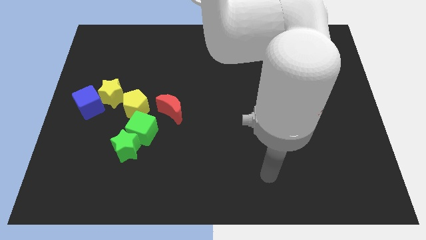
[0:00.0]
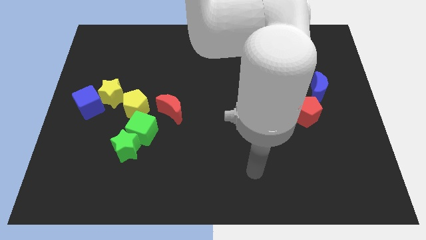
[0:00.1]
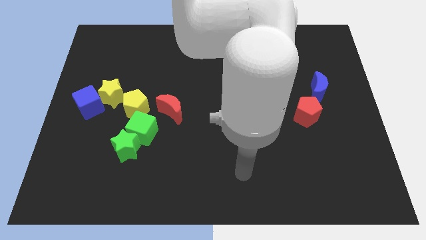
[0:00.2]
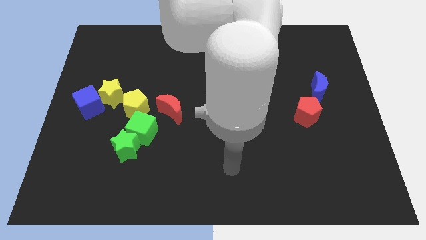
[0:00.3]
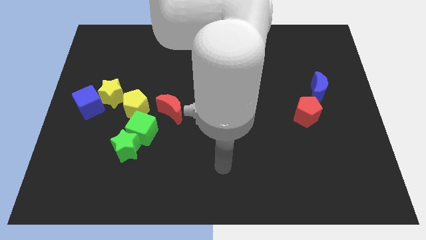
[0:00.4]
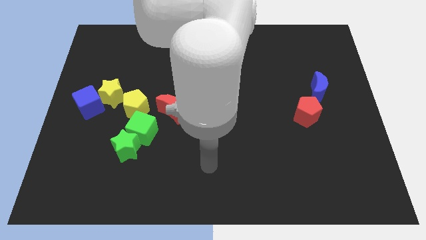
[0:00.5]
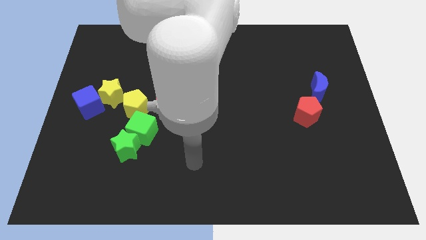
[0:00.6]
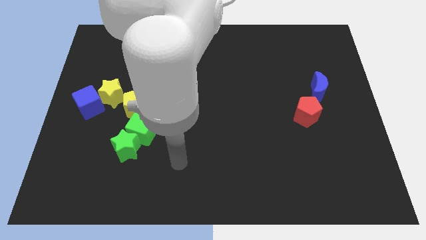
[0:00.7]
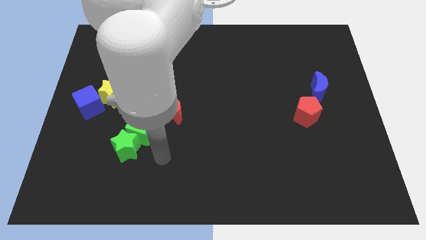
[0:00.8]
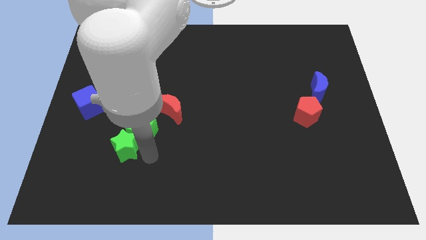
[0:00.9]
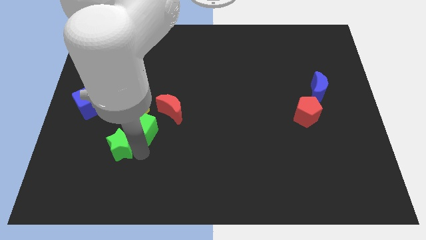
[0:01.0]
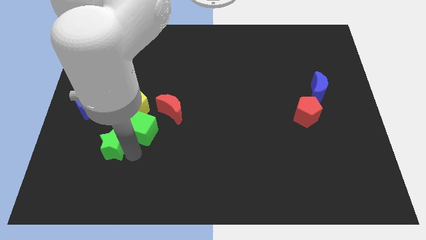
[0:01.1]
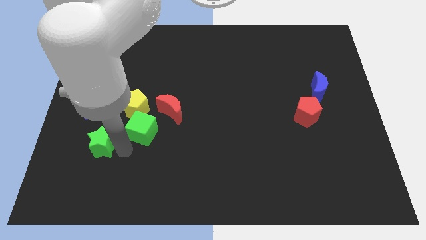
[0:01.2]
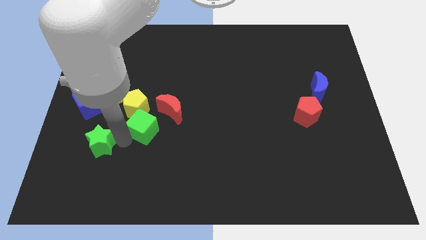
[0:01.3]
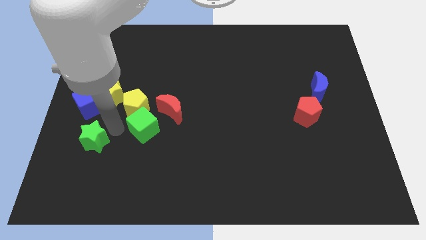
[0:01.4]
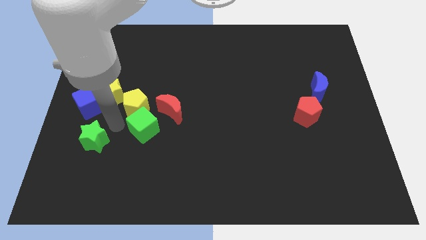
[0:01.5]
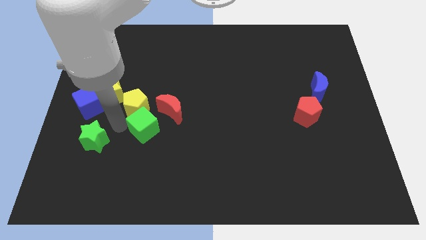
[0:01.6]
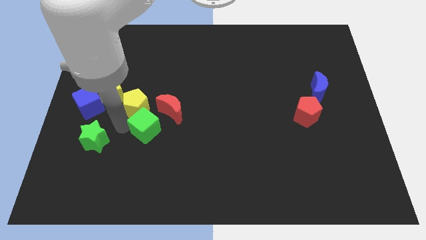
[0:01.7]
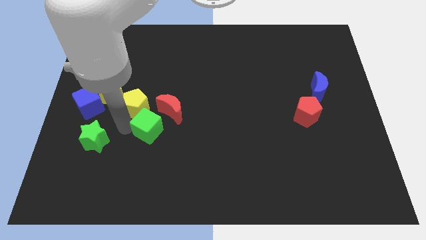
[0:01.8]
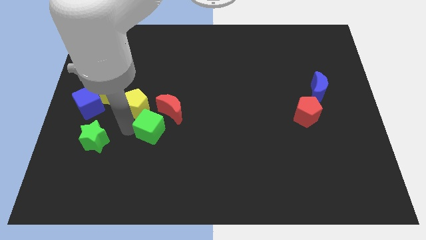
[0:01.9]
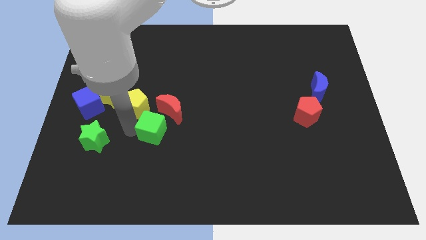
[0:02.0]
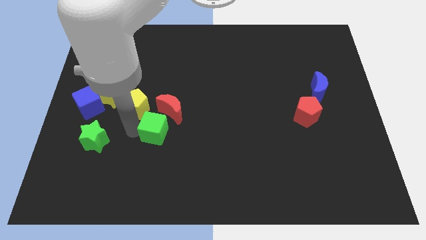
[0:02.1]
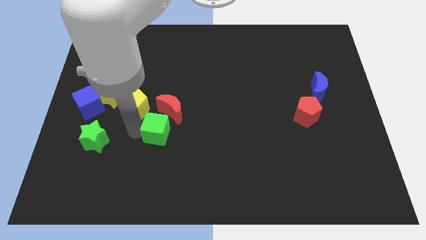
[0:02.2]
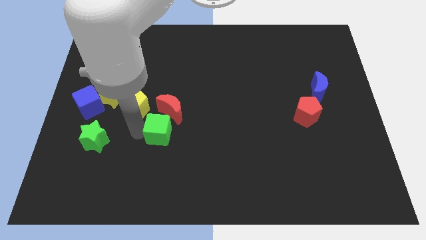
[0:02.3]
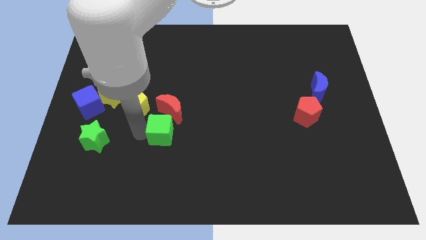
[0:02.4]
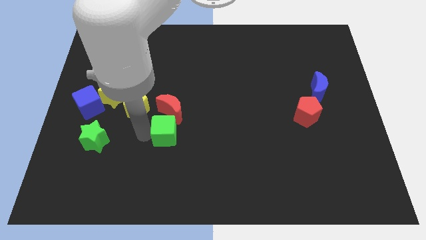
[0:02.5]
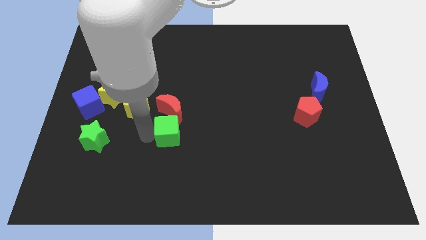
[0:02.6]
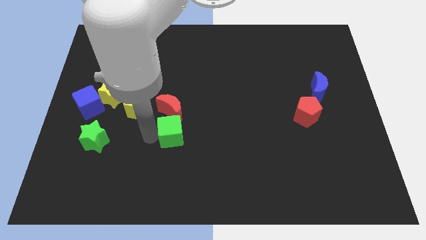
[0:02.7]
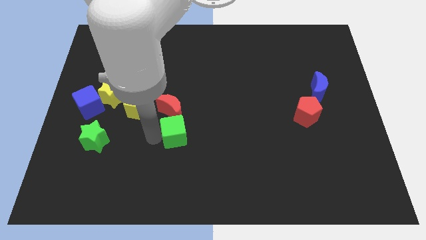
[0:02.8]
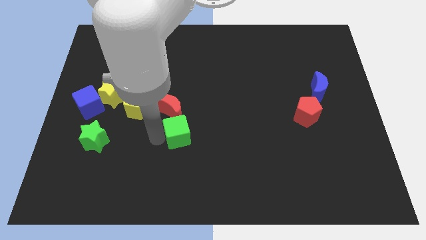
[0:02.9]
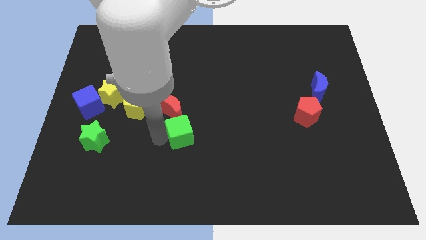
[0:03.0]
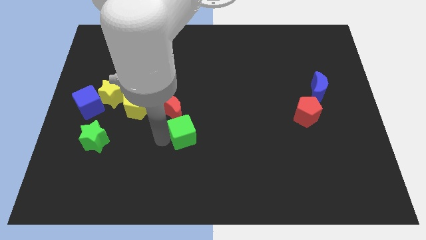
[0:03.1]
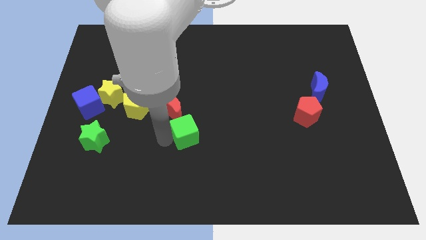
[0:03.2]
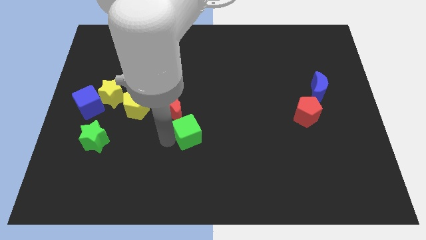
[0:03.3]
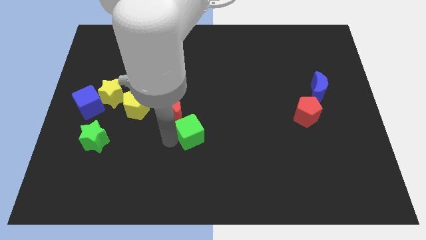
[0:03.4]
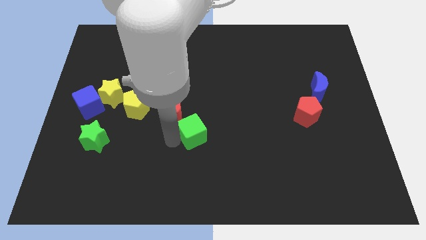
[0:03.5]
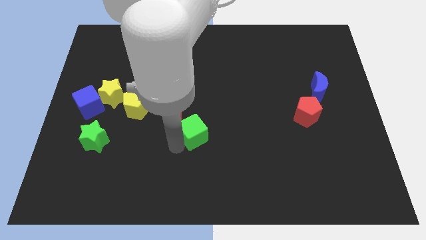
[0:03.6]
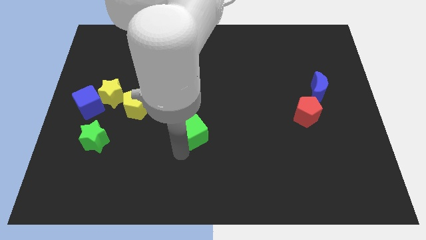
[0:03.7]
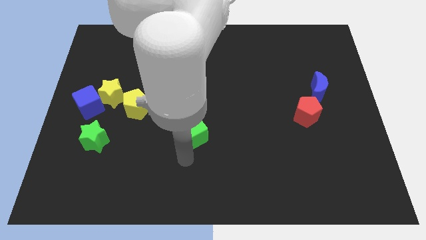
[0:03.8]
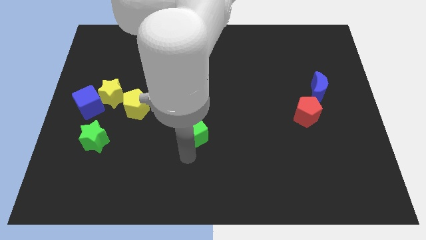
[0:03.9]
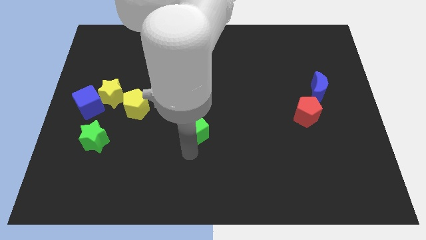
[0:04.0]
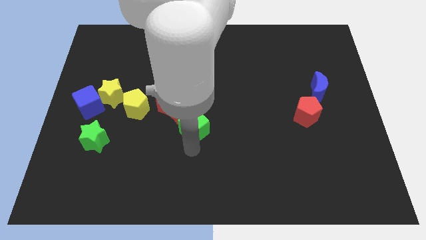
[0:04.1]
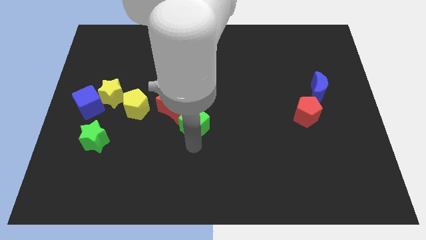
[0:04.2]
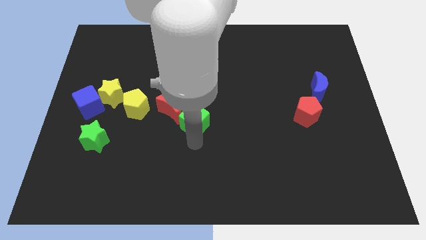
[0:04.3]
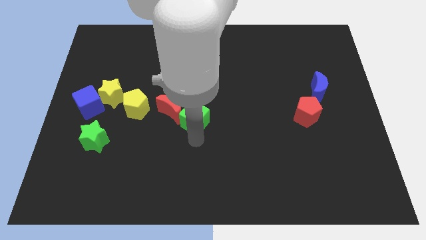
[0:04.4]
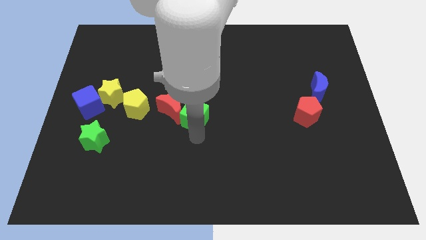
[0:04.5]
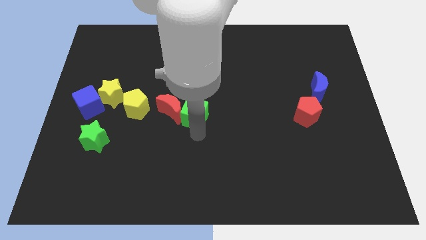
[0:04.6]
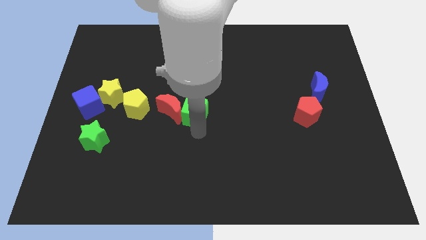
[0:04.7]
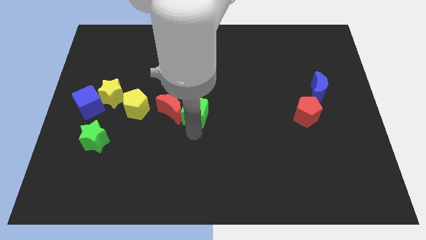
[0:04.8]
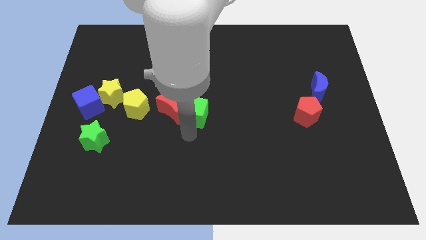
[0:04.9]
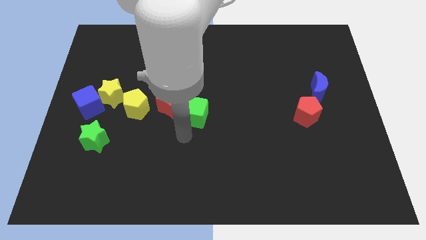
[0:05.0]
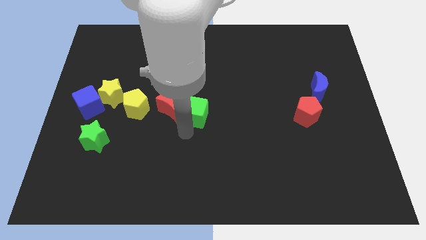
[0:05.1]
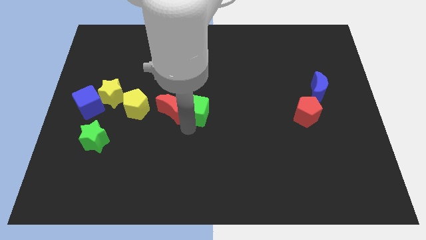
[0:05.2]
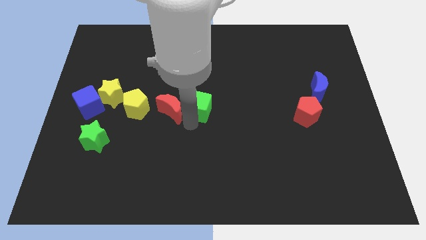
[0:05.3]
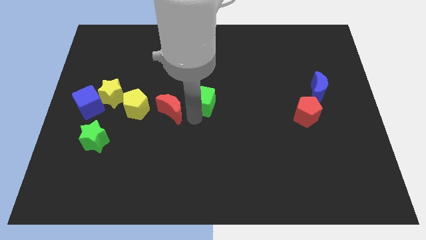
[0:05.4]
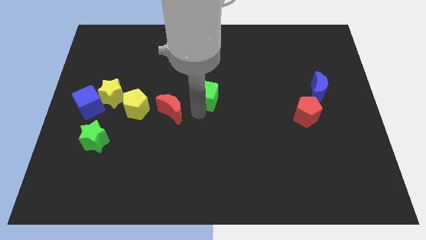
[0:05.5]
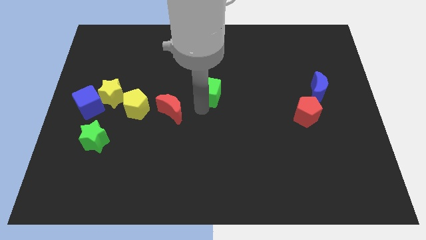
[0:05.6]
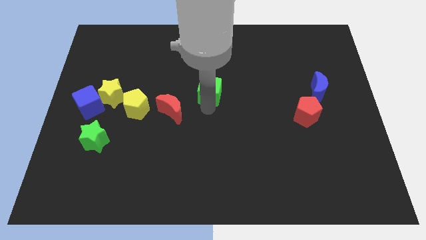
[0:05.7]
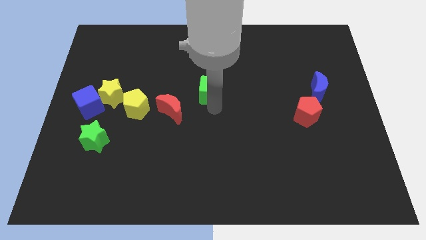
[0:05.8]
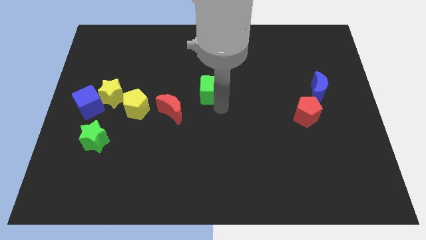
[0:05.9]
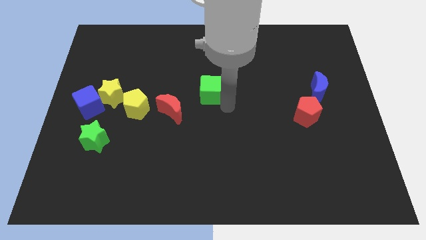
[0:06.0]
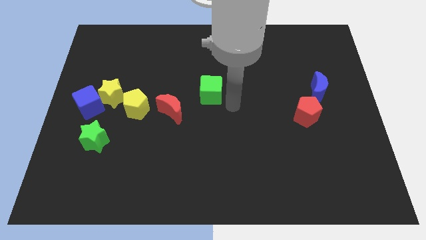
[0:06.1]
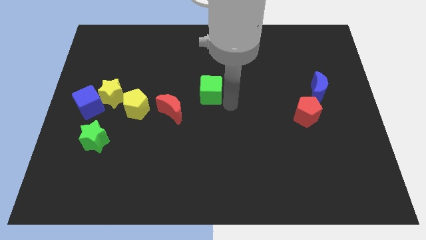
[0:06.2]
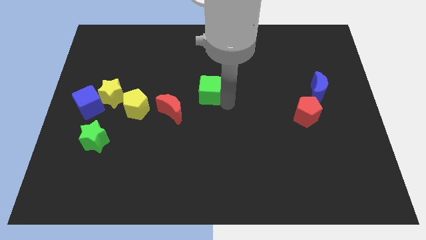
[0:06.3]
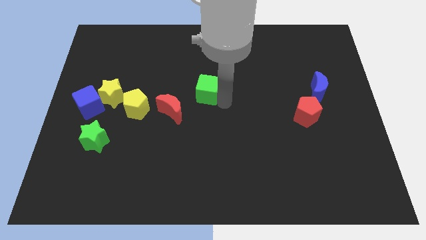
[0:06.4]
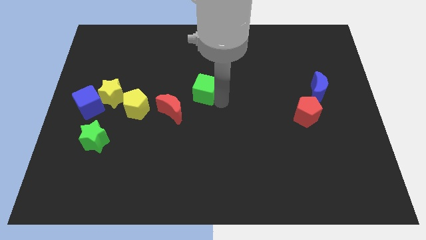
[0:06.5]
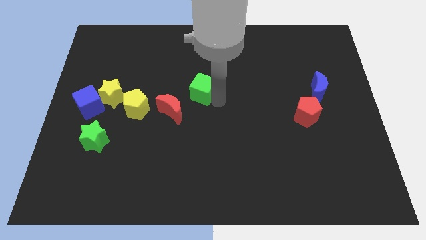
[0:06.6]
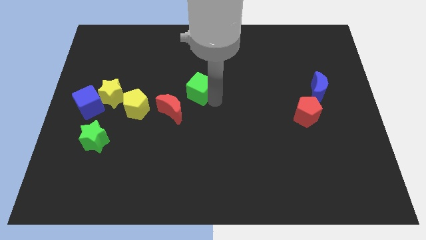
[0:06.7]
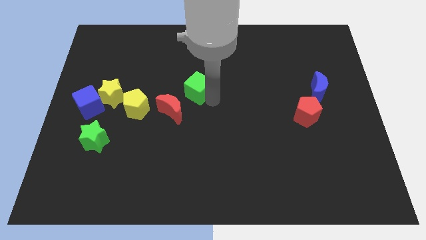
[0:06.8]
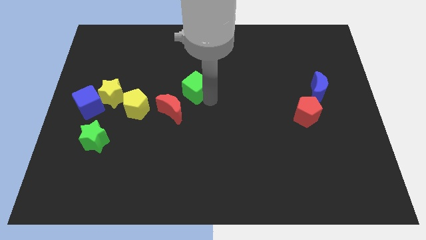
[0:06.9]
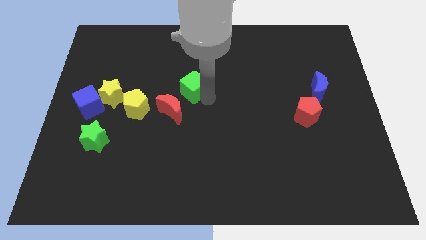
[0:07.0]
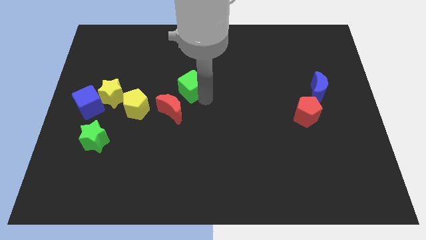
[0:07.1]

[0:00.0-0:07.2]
slightly slide the green cube upwards

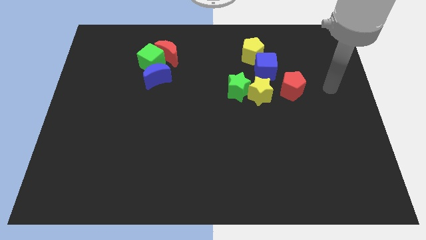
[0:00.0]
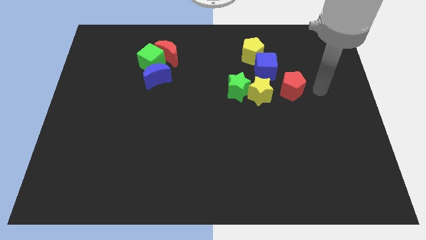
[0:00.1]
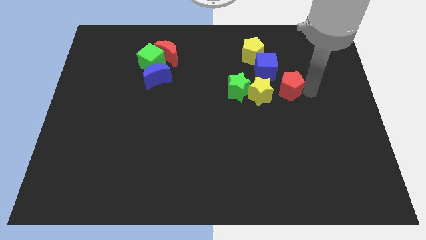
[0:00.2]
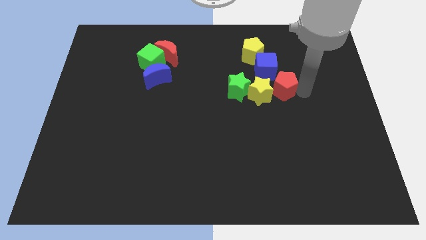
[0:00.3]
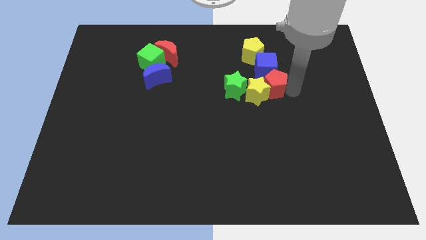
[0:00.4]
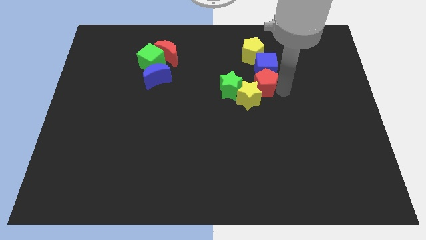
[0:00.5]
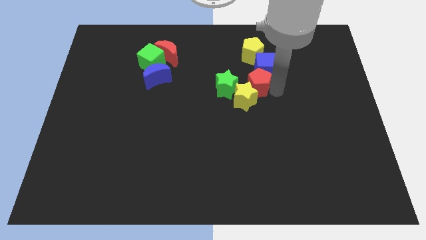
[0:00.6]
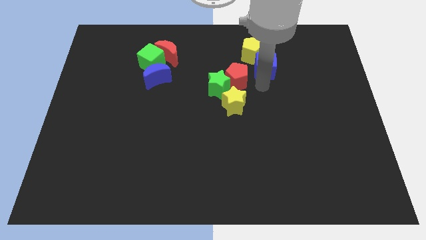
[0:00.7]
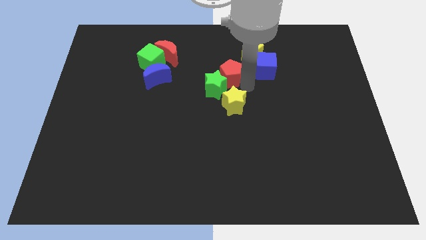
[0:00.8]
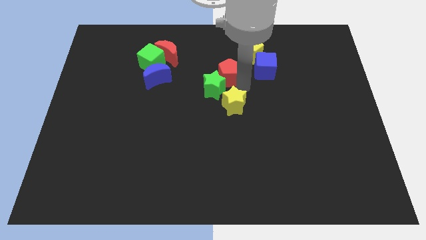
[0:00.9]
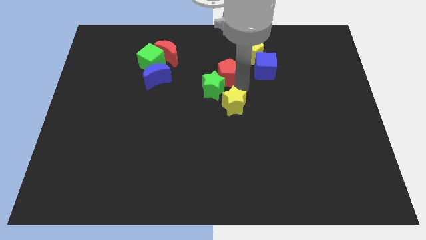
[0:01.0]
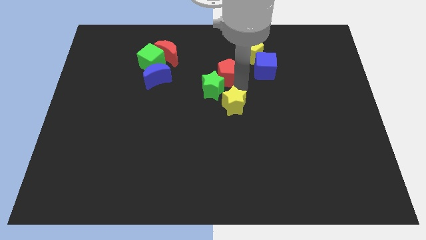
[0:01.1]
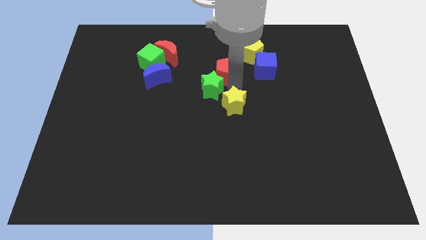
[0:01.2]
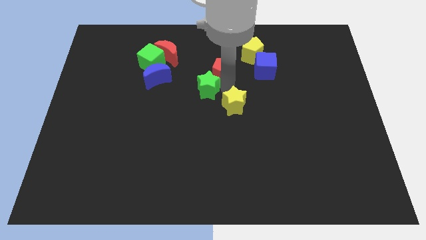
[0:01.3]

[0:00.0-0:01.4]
slightly push the green star to the left
